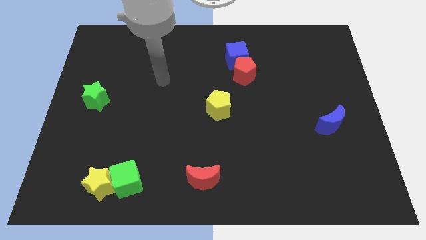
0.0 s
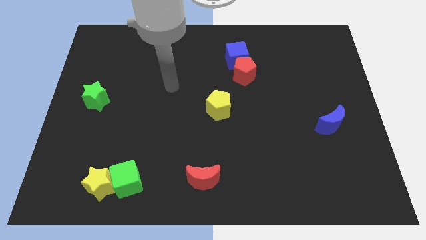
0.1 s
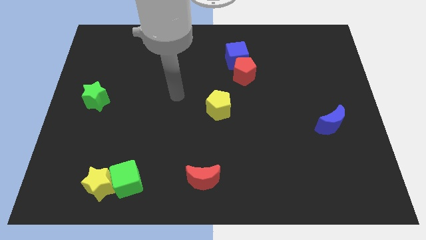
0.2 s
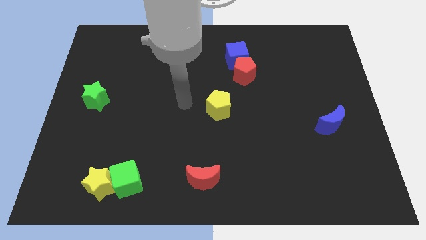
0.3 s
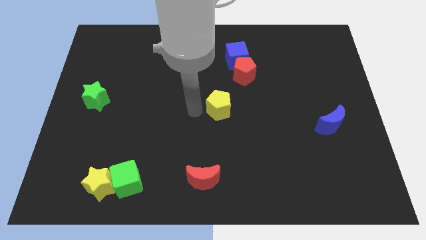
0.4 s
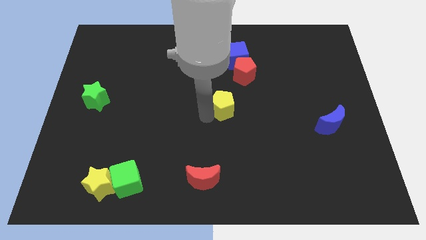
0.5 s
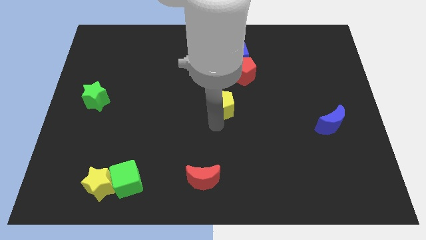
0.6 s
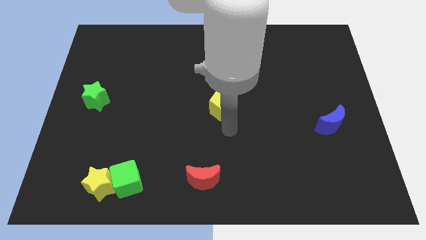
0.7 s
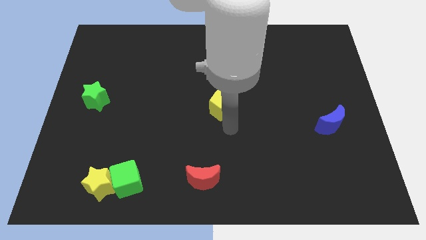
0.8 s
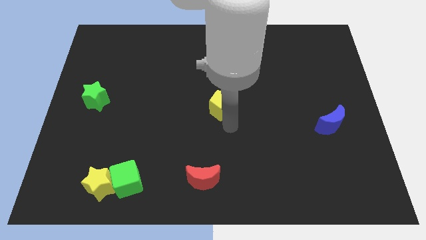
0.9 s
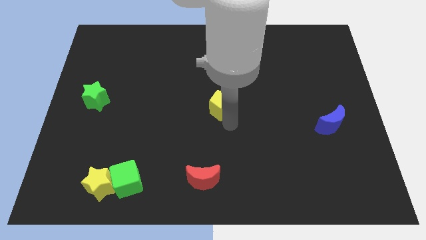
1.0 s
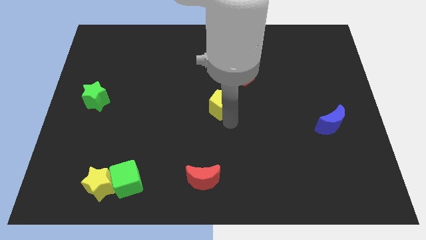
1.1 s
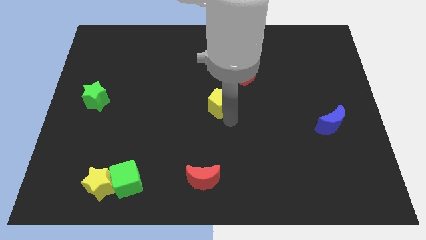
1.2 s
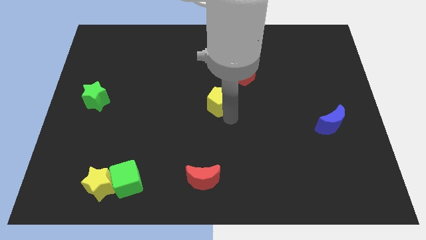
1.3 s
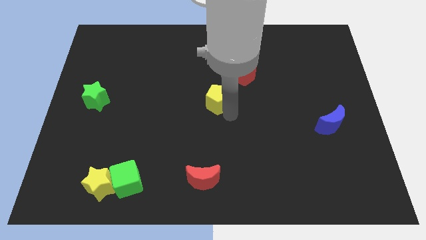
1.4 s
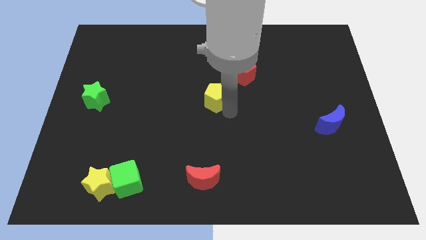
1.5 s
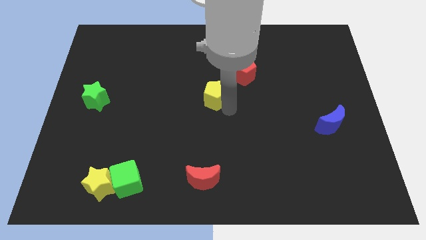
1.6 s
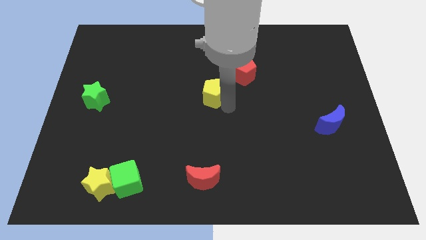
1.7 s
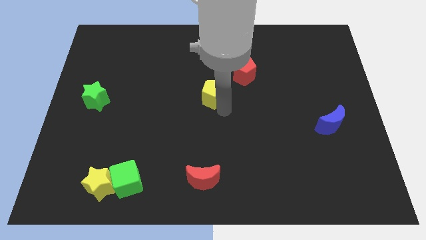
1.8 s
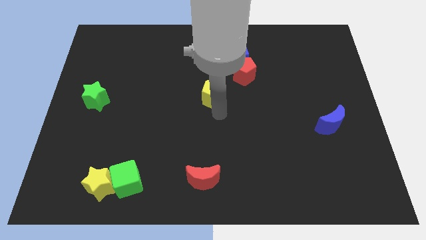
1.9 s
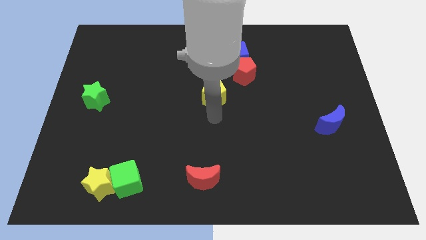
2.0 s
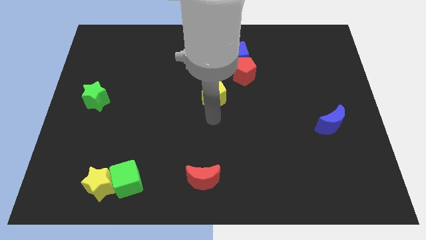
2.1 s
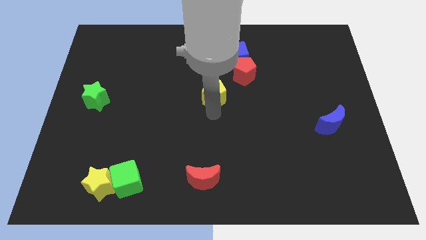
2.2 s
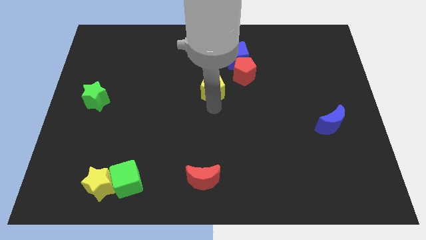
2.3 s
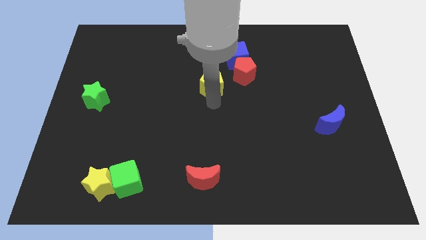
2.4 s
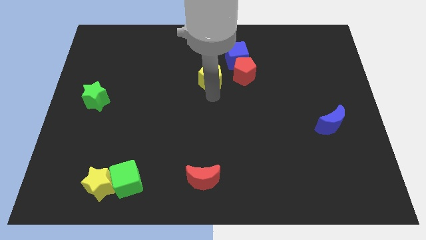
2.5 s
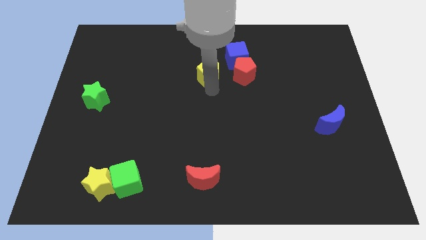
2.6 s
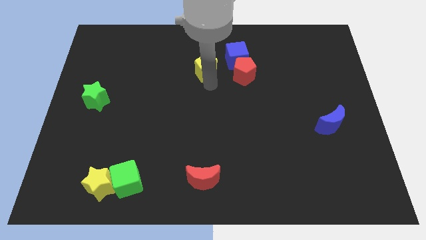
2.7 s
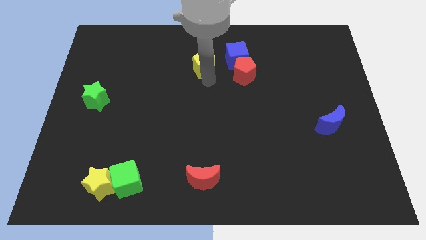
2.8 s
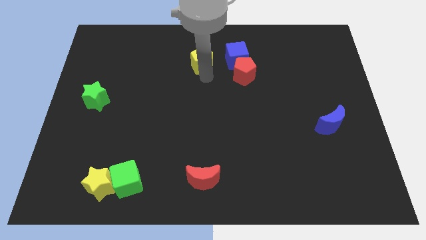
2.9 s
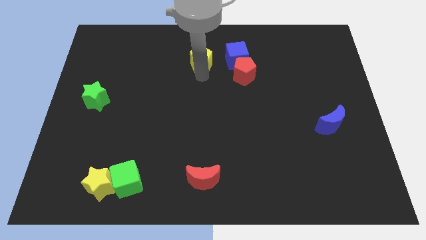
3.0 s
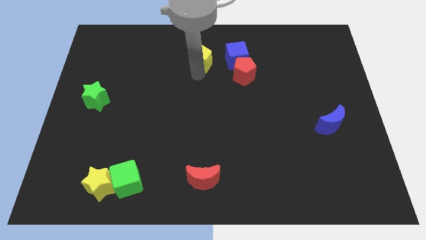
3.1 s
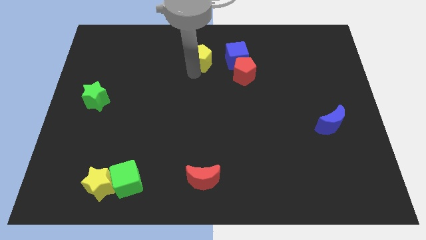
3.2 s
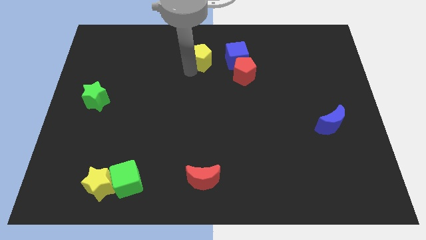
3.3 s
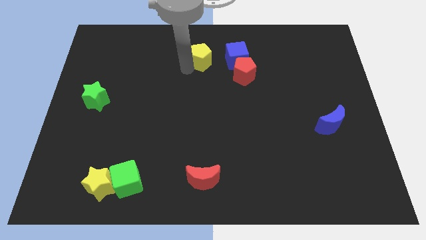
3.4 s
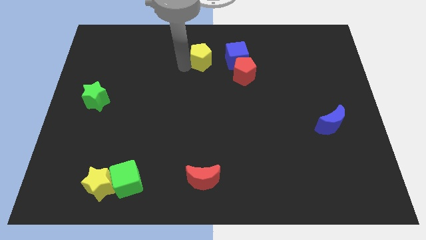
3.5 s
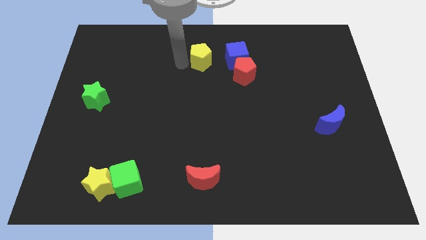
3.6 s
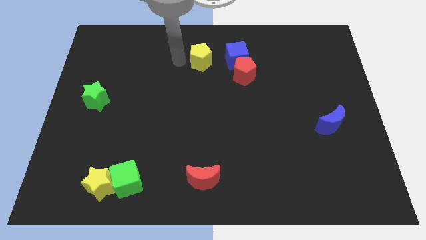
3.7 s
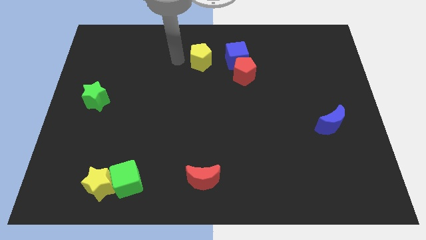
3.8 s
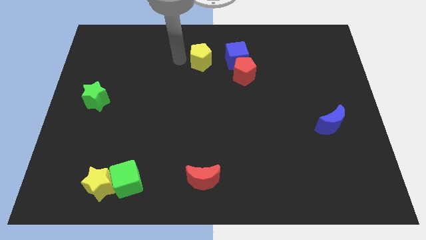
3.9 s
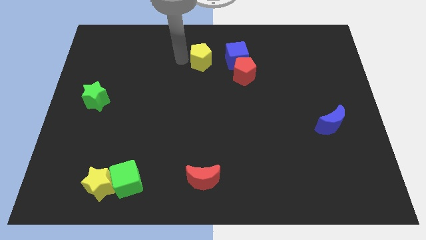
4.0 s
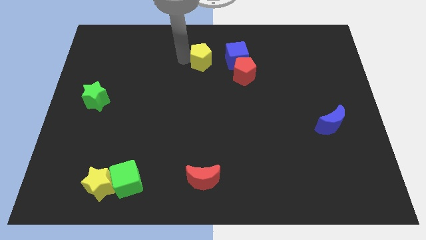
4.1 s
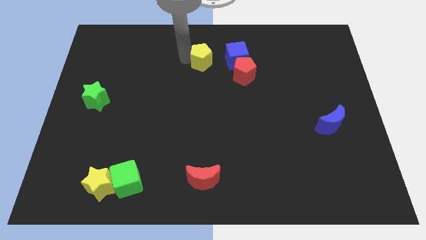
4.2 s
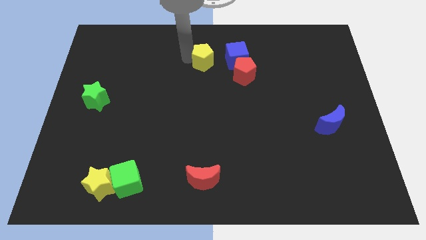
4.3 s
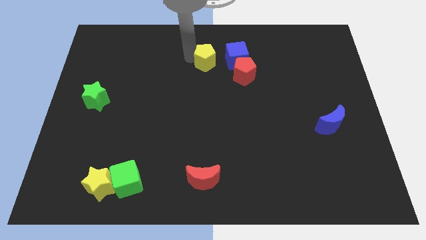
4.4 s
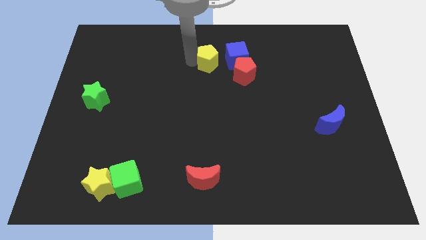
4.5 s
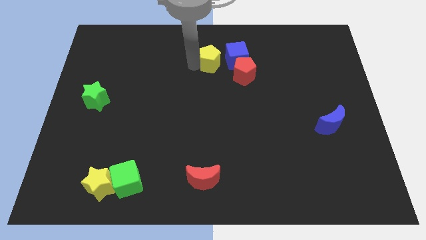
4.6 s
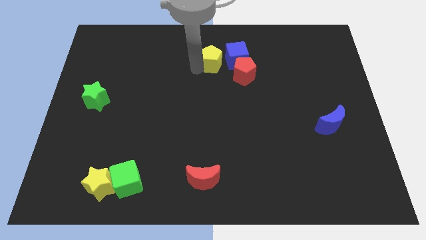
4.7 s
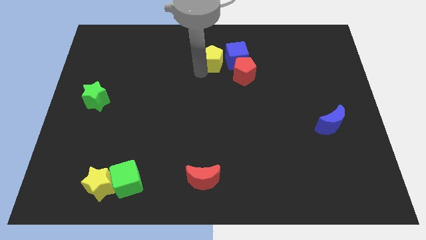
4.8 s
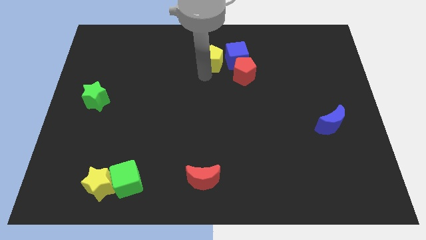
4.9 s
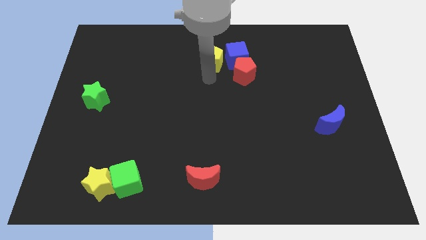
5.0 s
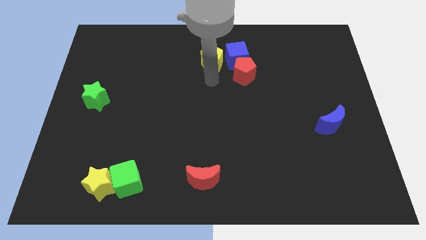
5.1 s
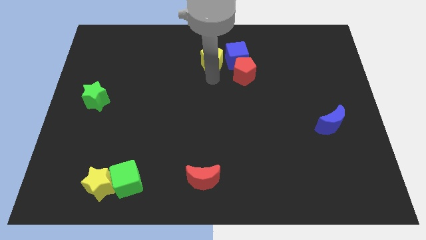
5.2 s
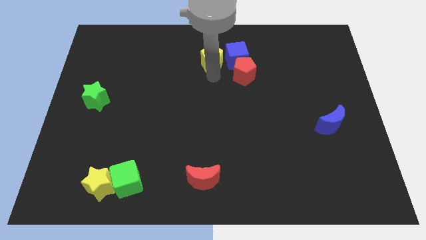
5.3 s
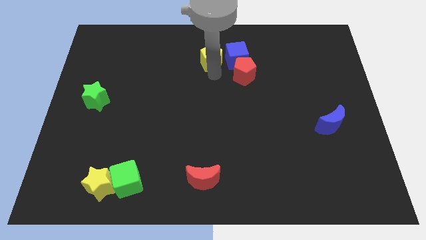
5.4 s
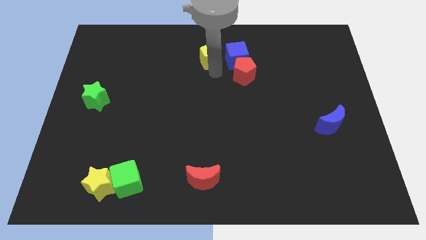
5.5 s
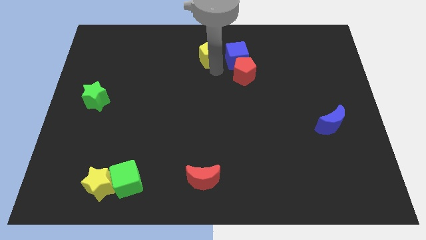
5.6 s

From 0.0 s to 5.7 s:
put the yellow pentagon to the top

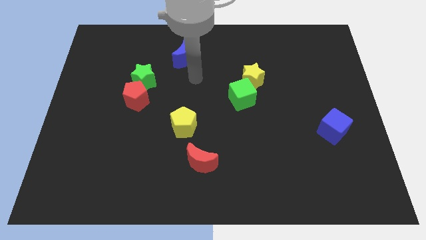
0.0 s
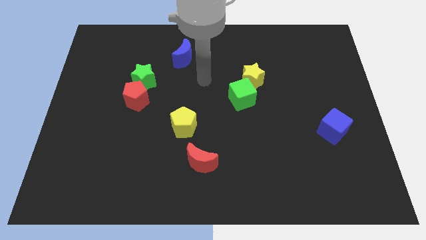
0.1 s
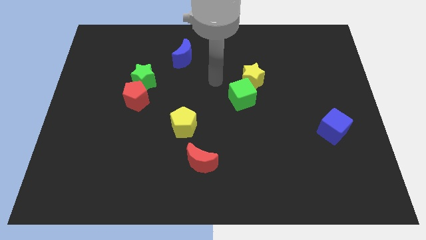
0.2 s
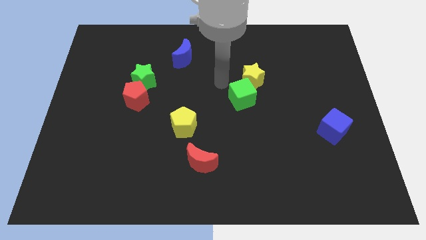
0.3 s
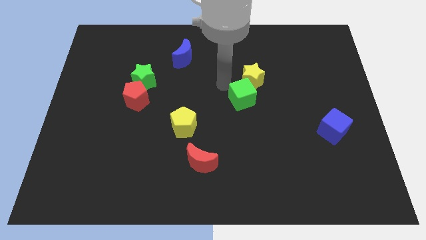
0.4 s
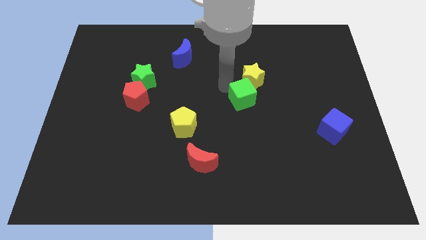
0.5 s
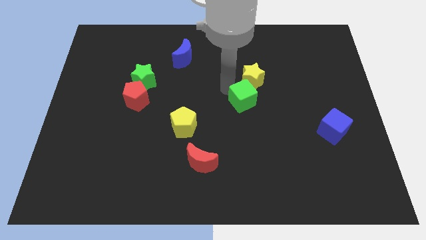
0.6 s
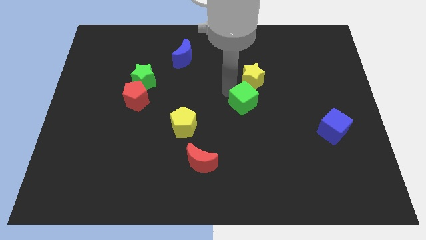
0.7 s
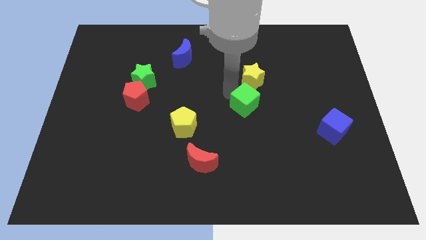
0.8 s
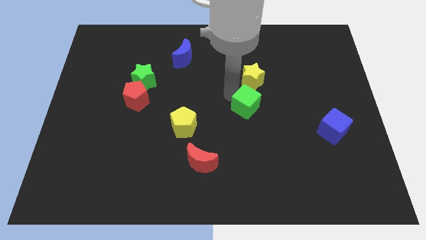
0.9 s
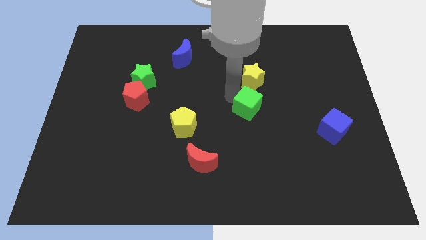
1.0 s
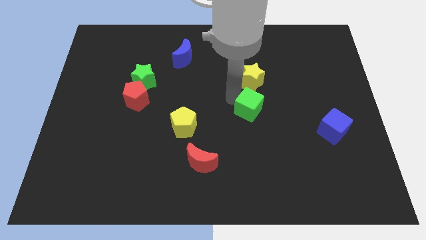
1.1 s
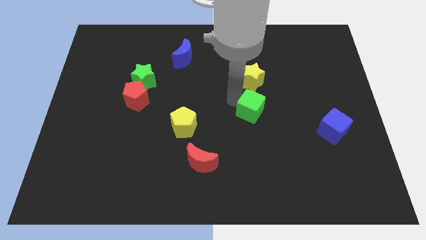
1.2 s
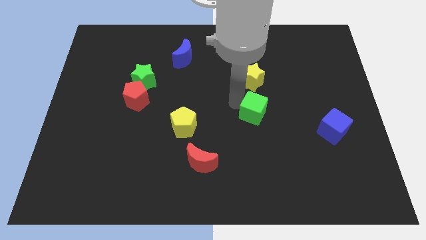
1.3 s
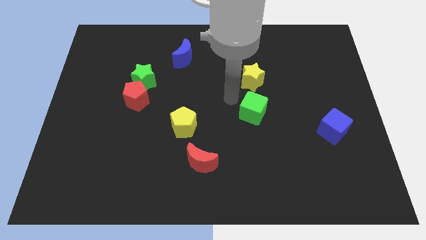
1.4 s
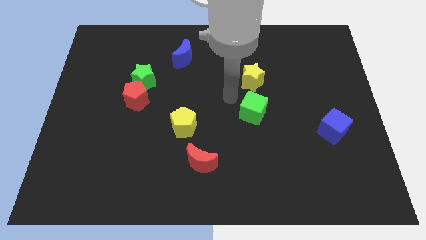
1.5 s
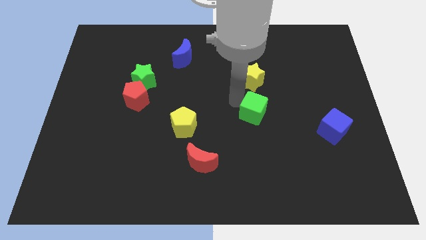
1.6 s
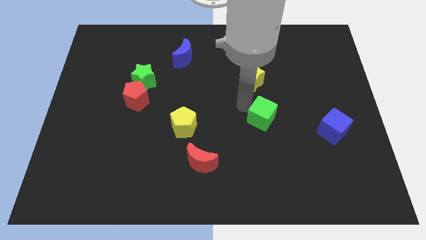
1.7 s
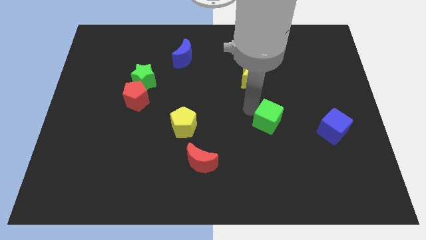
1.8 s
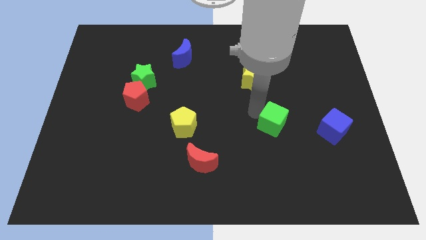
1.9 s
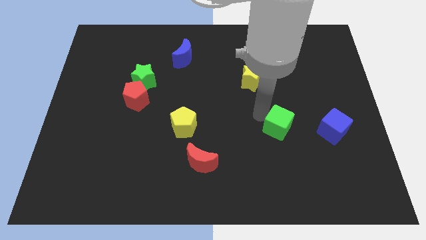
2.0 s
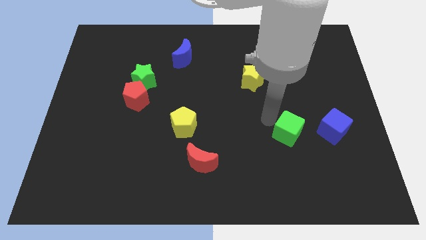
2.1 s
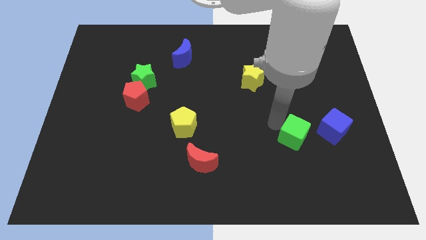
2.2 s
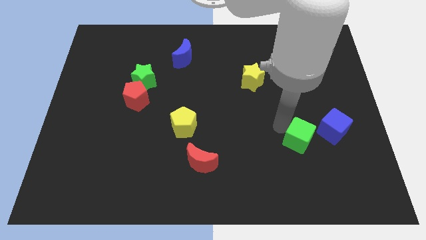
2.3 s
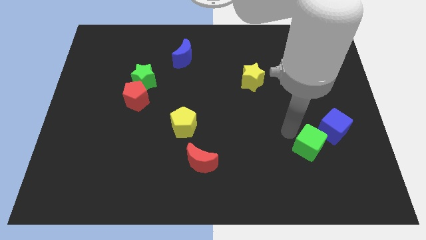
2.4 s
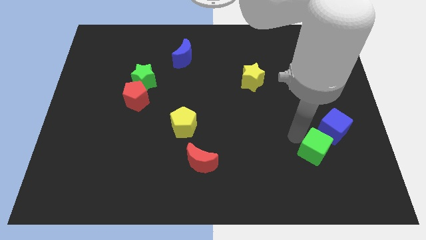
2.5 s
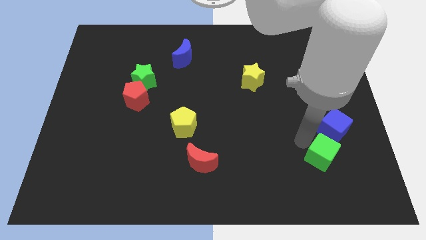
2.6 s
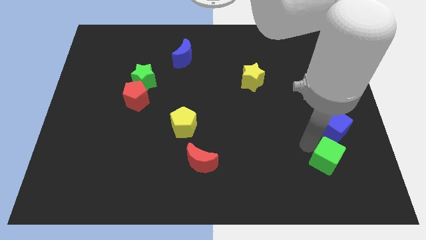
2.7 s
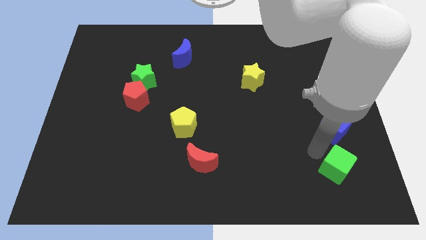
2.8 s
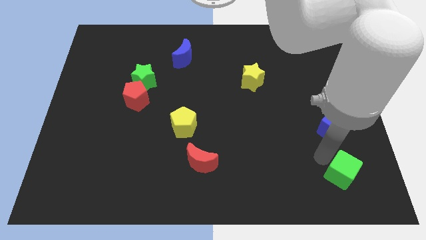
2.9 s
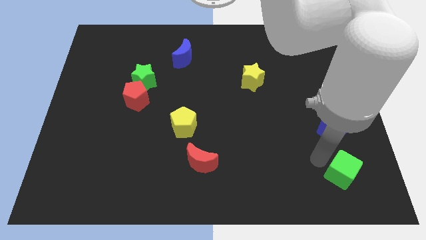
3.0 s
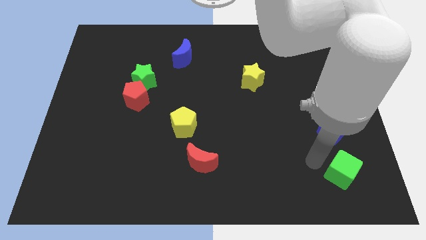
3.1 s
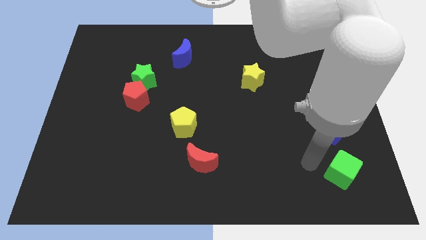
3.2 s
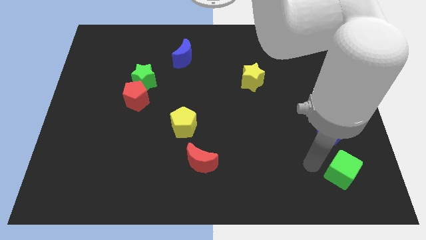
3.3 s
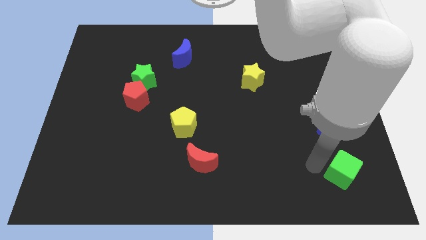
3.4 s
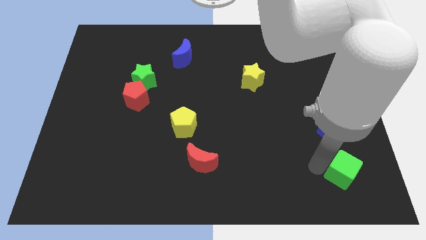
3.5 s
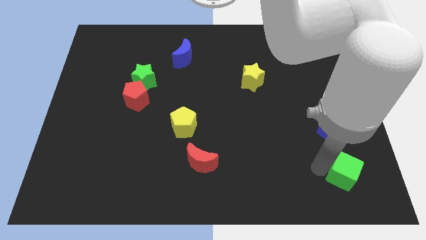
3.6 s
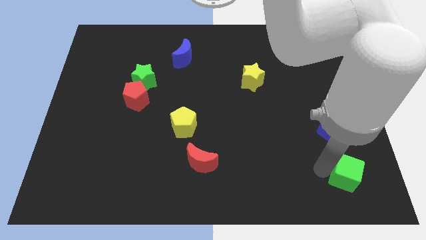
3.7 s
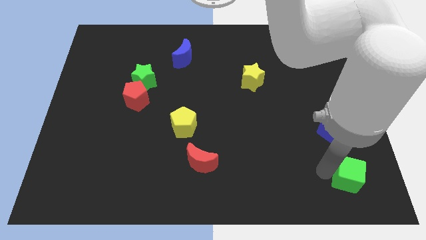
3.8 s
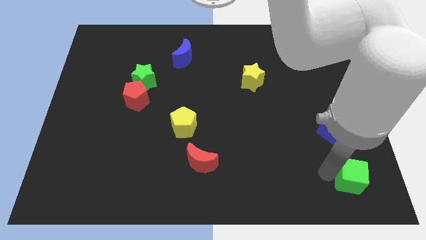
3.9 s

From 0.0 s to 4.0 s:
move the green cube to the bottom right corner
